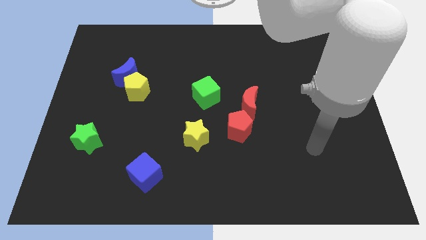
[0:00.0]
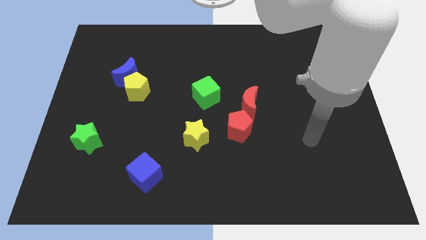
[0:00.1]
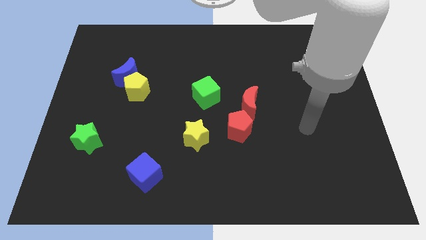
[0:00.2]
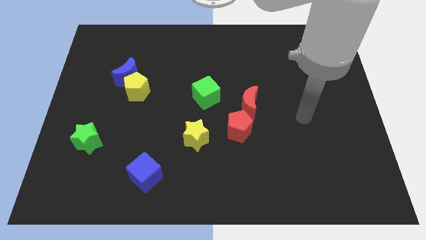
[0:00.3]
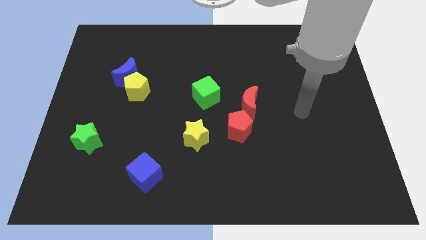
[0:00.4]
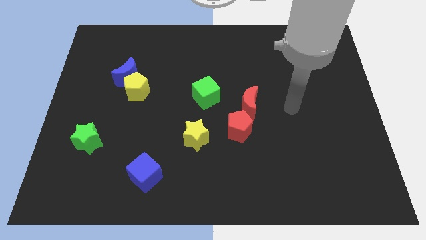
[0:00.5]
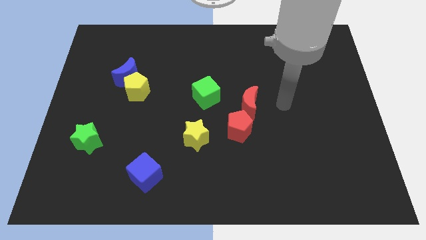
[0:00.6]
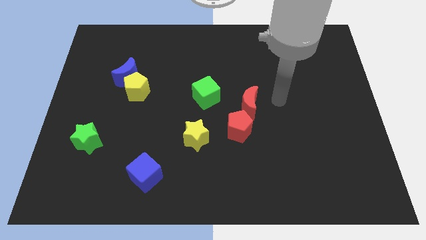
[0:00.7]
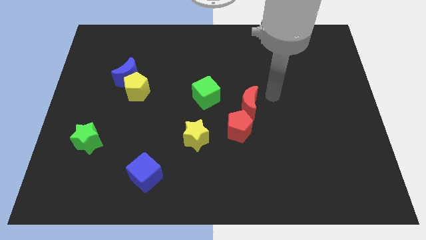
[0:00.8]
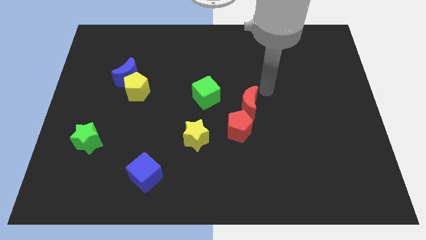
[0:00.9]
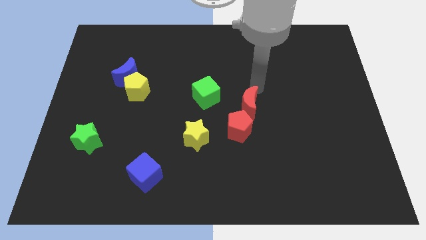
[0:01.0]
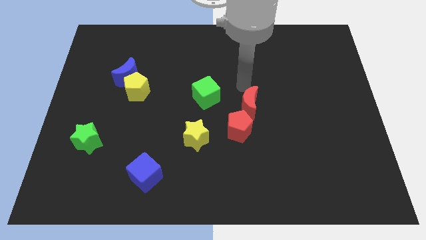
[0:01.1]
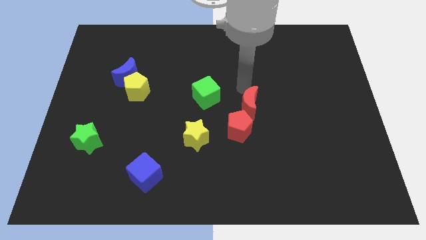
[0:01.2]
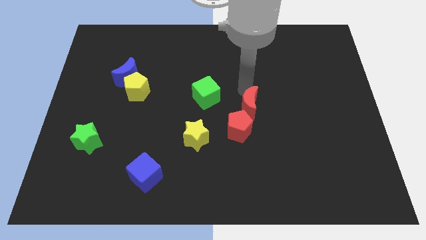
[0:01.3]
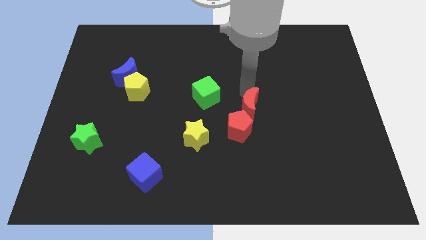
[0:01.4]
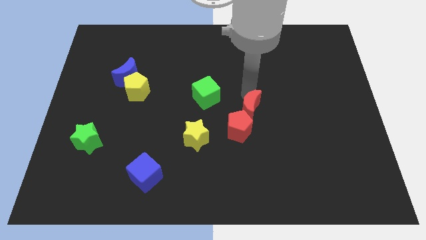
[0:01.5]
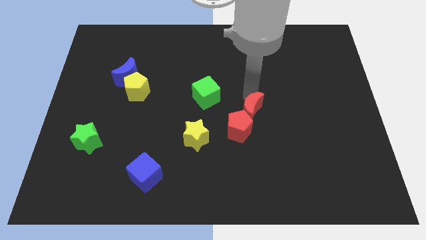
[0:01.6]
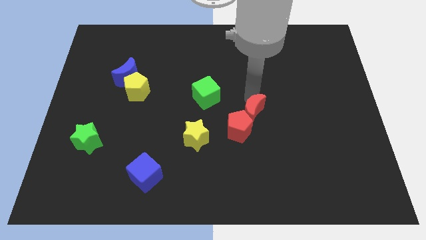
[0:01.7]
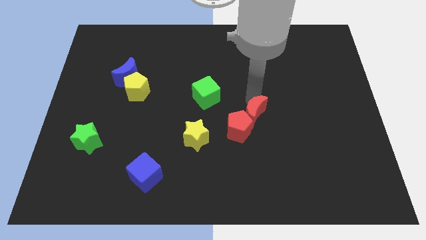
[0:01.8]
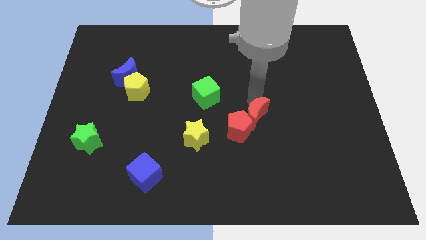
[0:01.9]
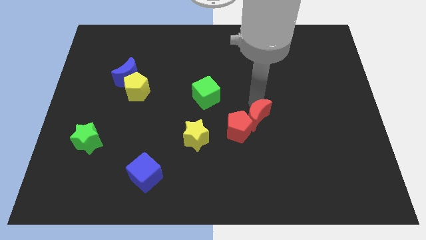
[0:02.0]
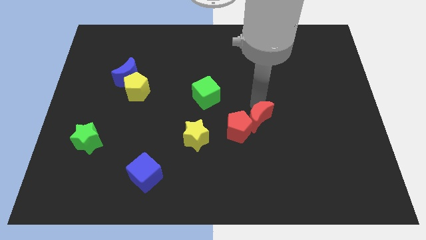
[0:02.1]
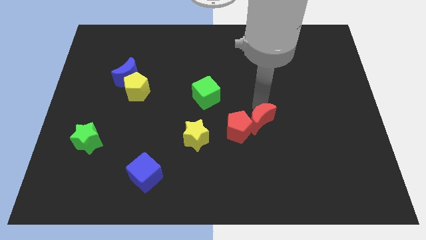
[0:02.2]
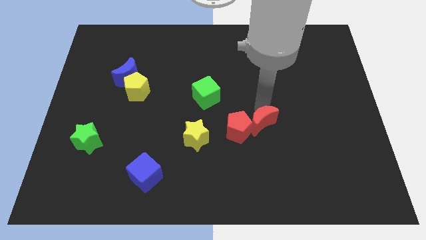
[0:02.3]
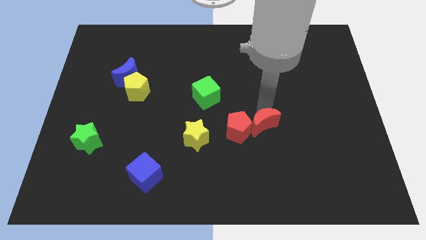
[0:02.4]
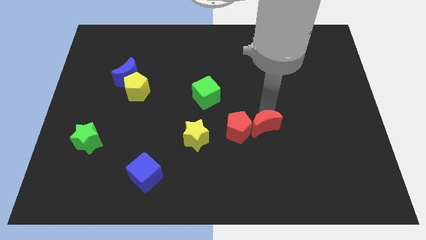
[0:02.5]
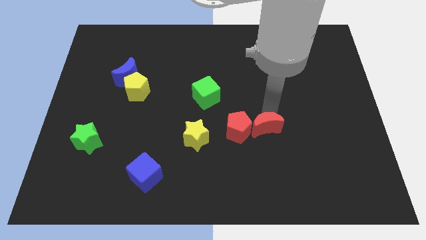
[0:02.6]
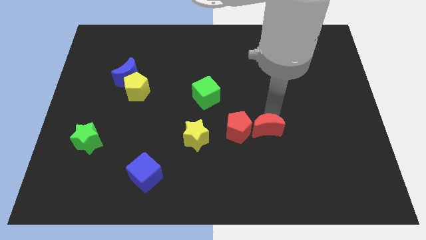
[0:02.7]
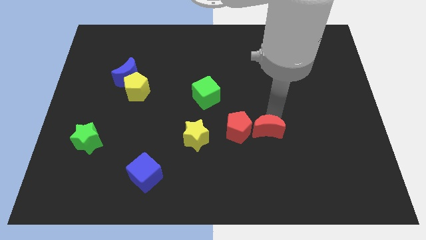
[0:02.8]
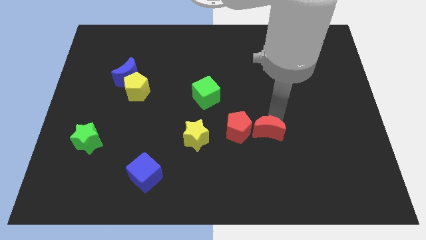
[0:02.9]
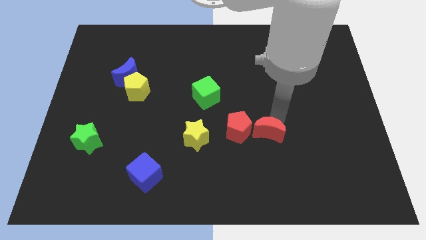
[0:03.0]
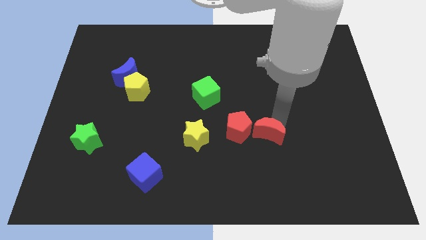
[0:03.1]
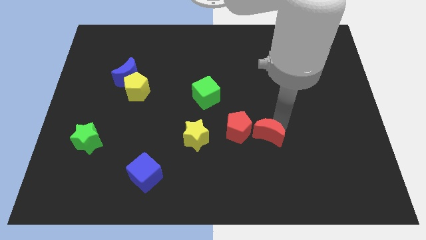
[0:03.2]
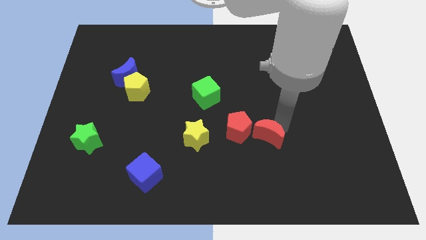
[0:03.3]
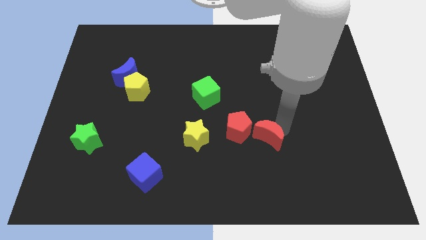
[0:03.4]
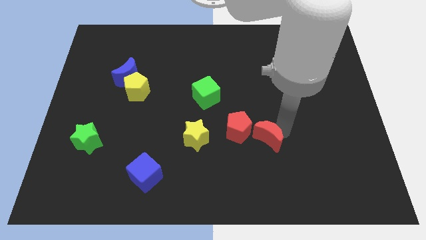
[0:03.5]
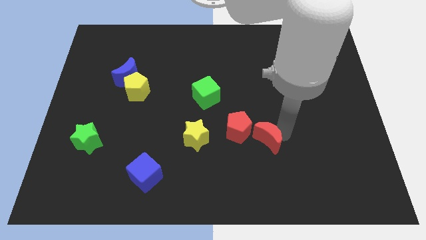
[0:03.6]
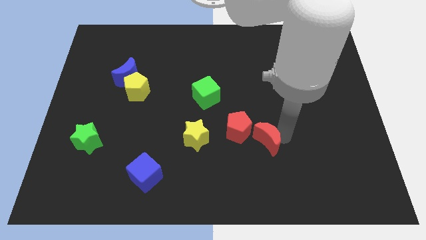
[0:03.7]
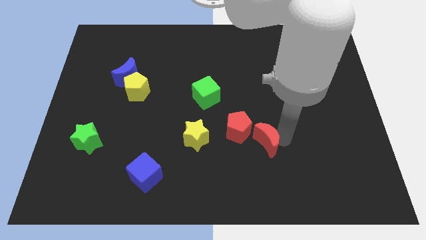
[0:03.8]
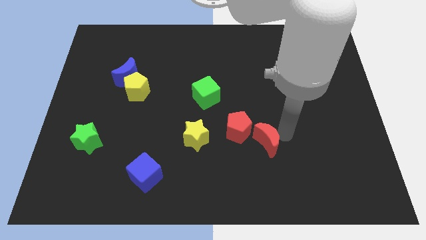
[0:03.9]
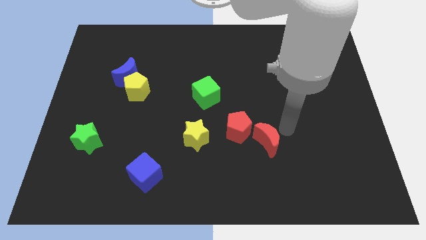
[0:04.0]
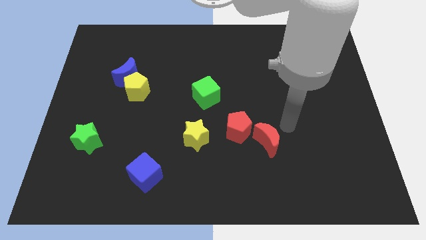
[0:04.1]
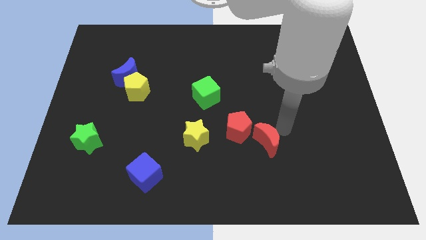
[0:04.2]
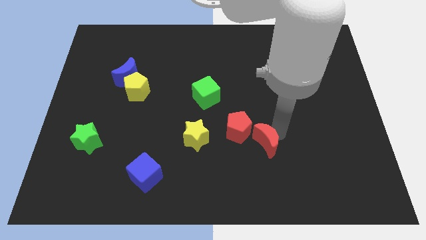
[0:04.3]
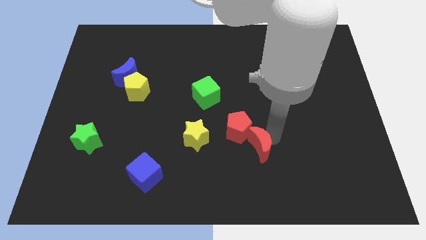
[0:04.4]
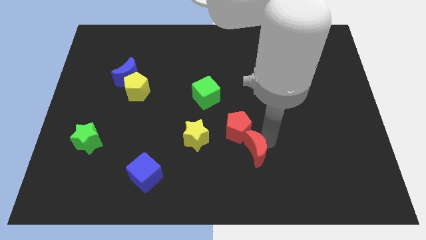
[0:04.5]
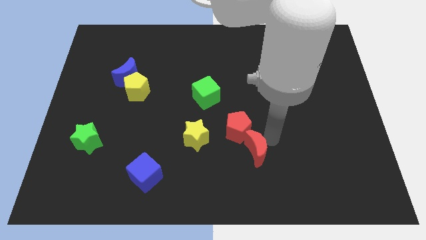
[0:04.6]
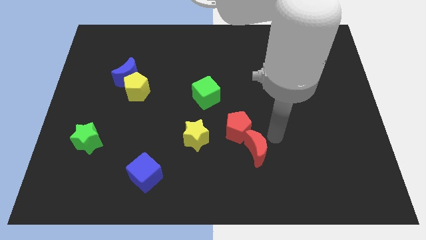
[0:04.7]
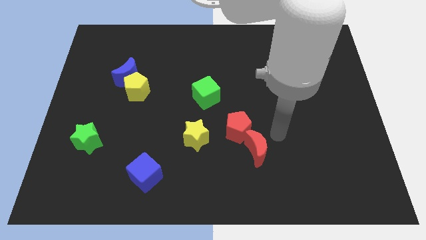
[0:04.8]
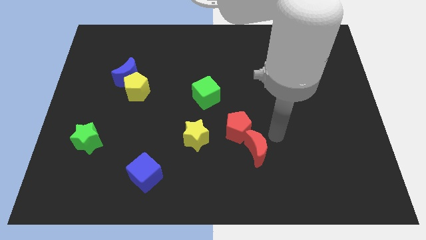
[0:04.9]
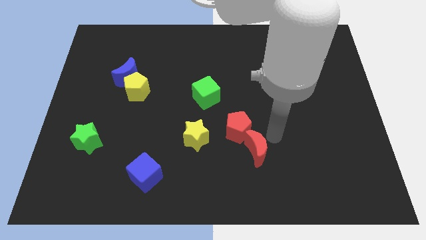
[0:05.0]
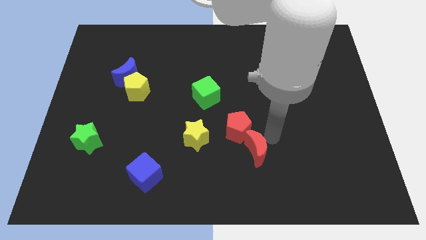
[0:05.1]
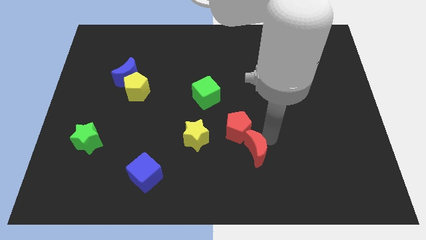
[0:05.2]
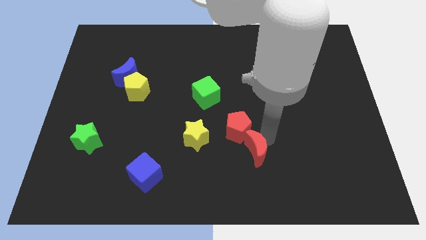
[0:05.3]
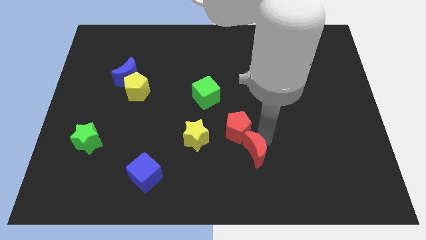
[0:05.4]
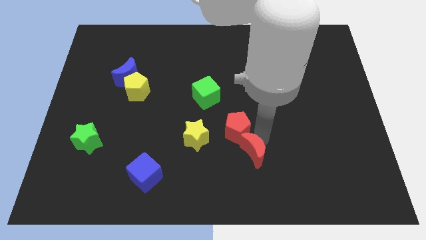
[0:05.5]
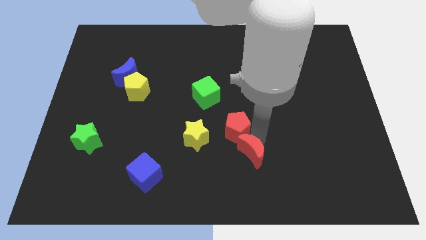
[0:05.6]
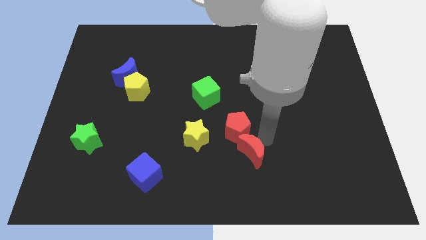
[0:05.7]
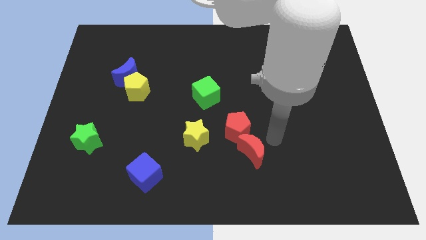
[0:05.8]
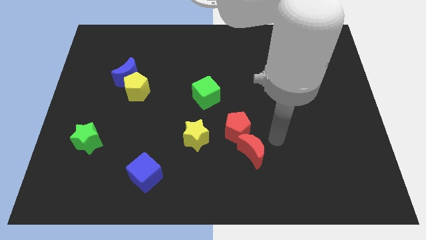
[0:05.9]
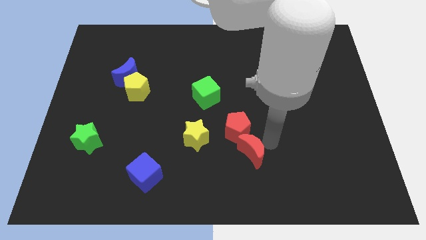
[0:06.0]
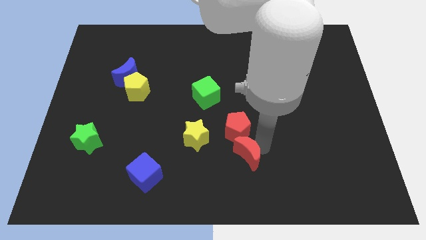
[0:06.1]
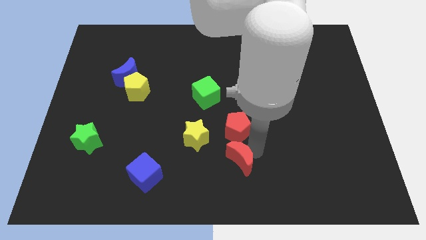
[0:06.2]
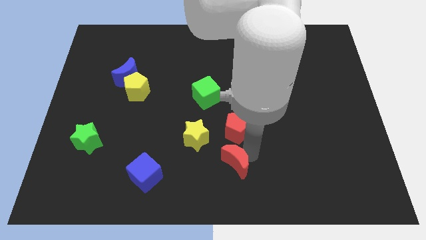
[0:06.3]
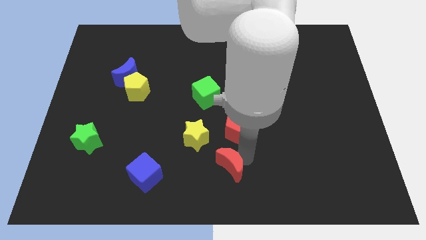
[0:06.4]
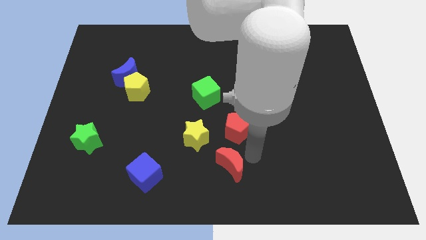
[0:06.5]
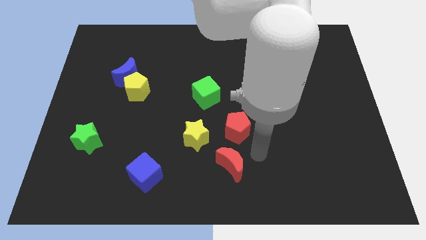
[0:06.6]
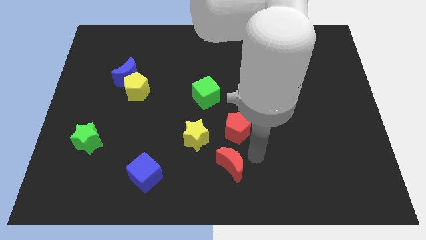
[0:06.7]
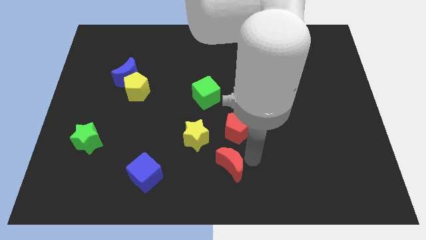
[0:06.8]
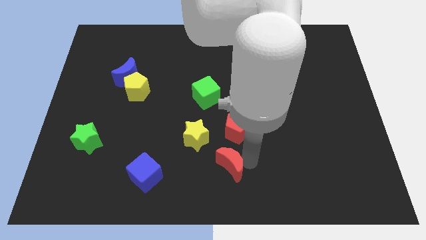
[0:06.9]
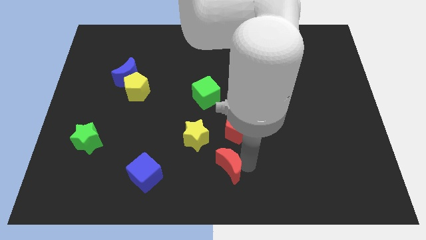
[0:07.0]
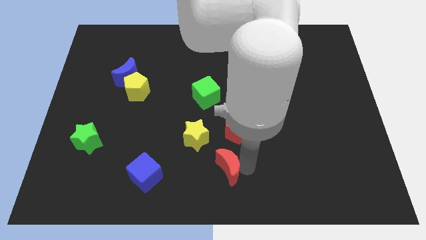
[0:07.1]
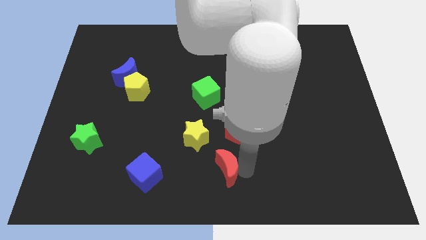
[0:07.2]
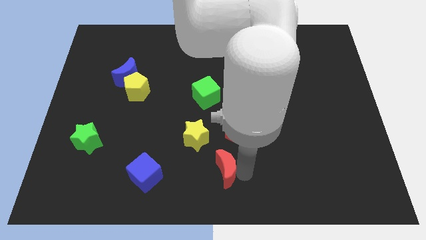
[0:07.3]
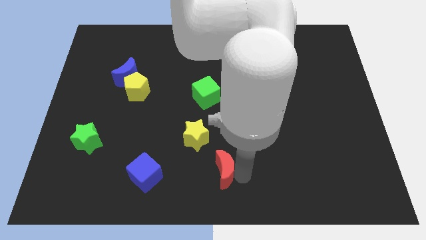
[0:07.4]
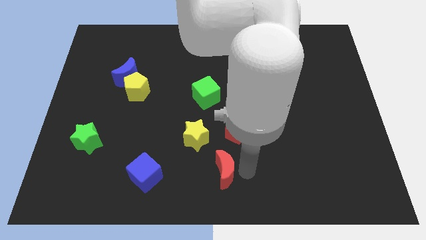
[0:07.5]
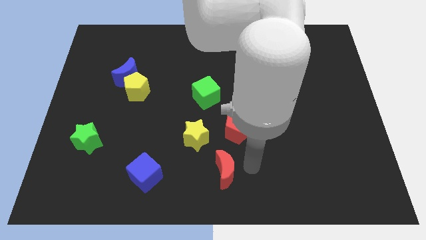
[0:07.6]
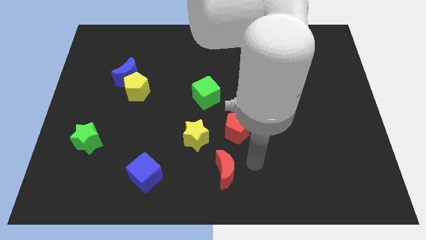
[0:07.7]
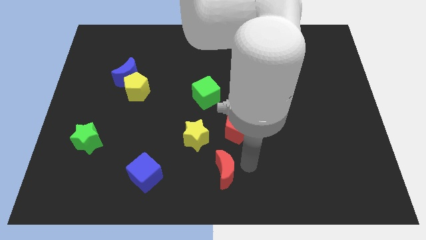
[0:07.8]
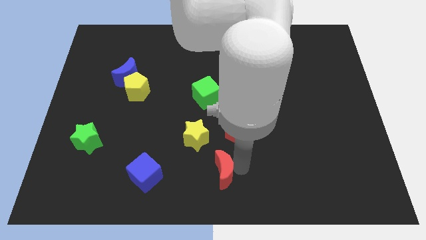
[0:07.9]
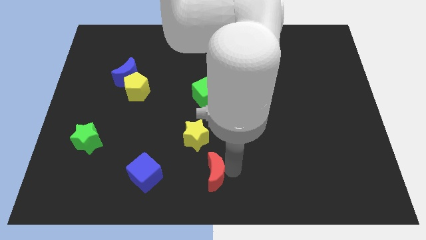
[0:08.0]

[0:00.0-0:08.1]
slide the red moon to the bottom of the yellow star
